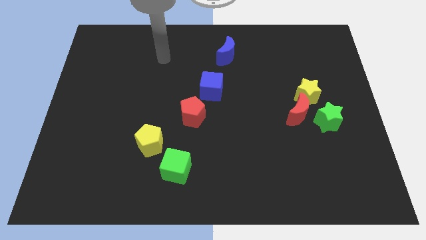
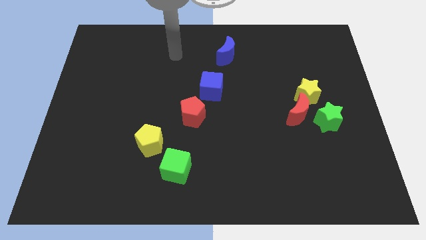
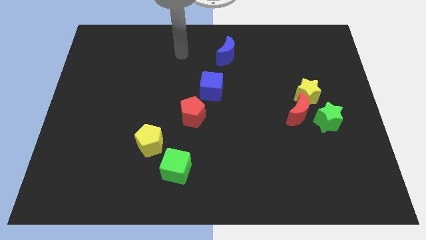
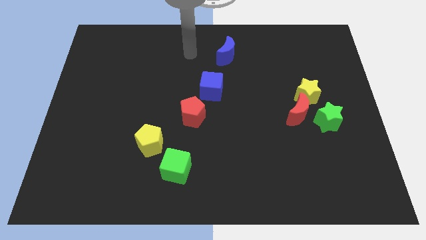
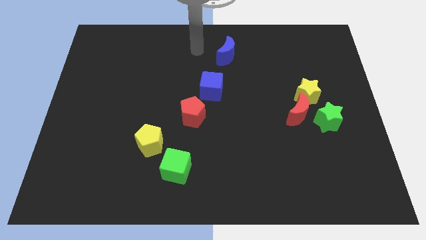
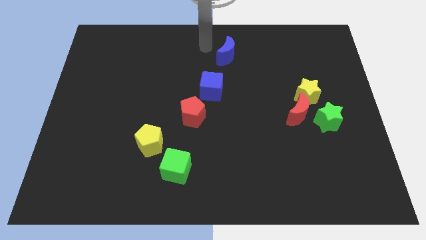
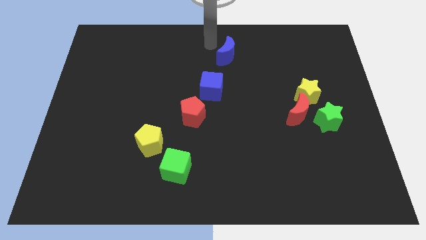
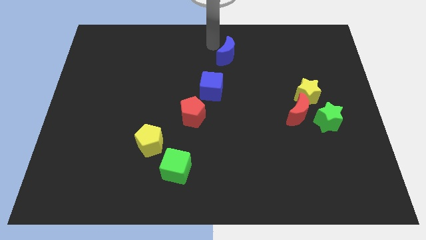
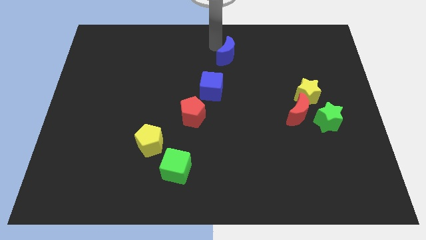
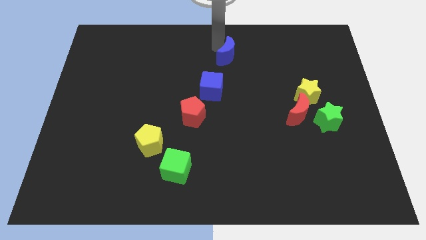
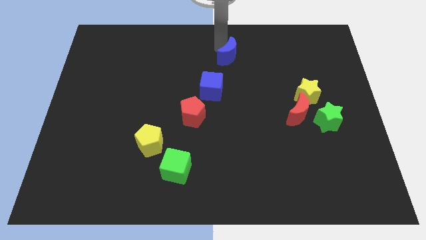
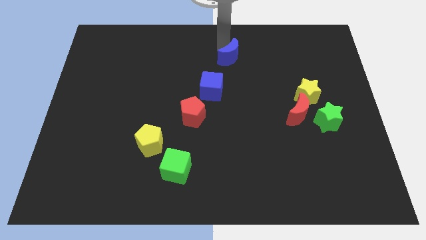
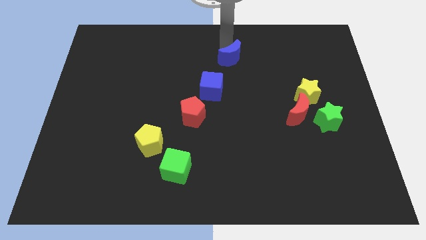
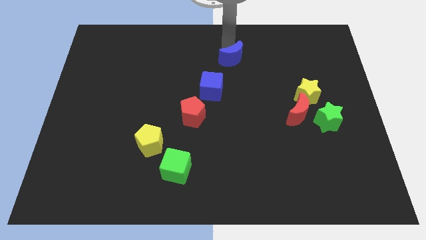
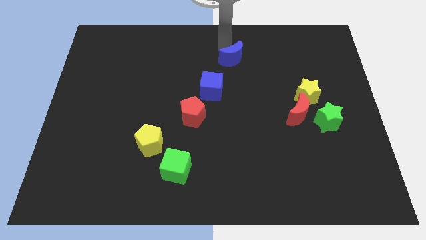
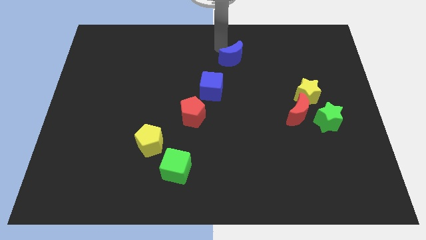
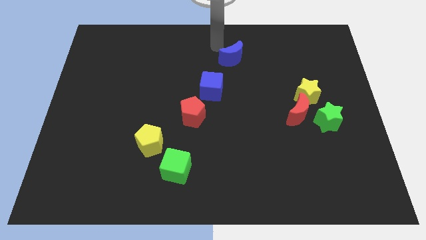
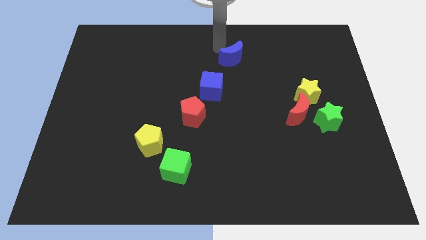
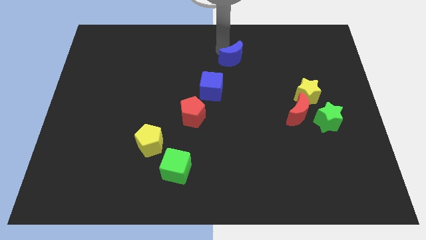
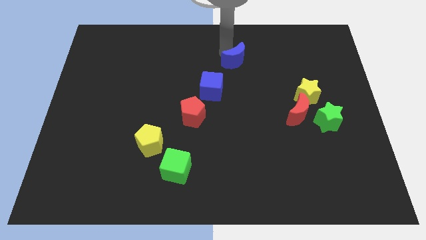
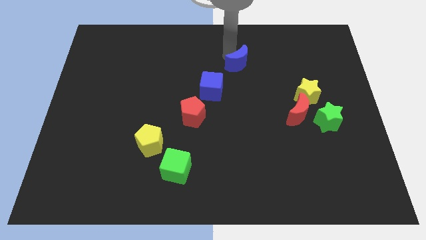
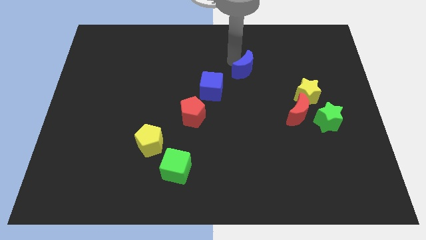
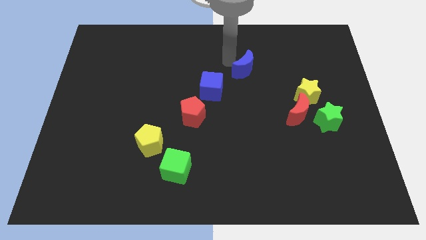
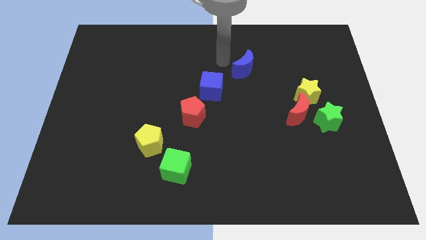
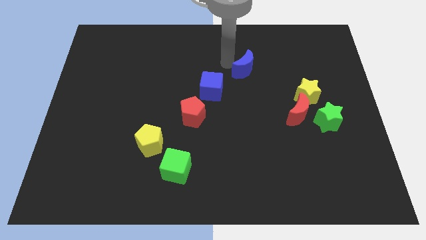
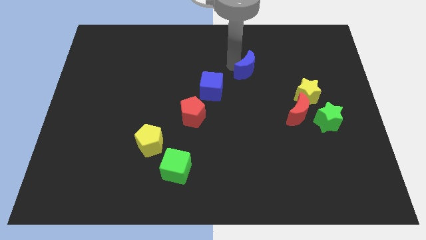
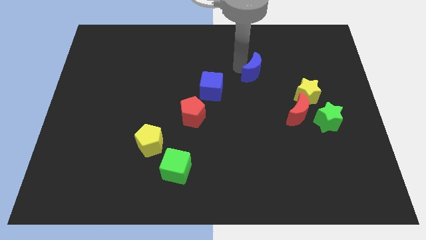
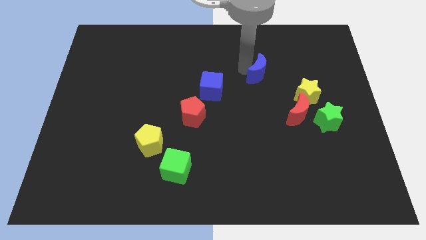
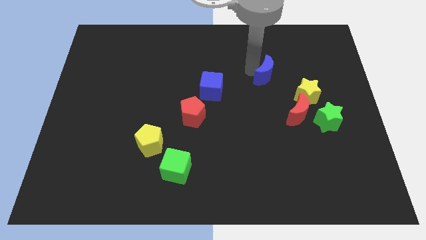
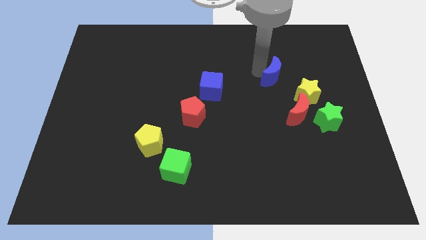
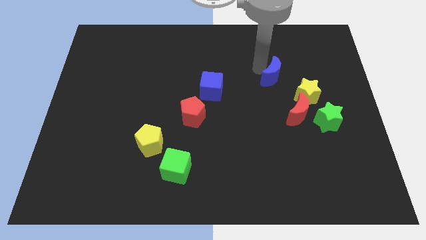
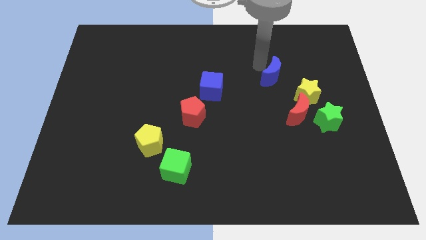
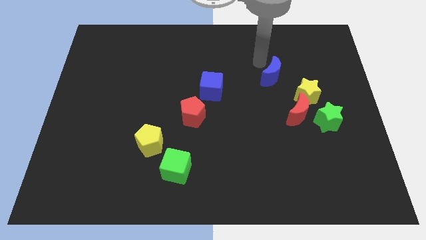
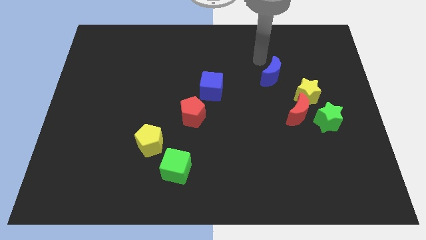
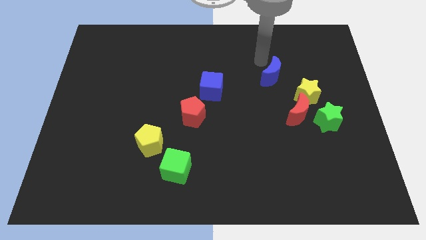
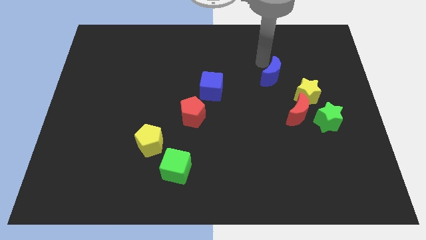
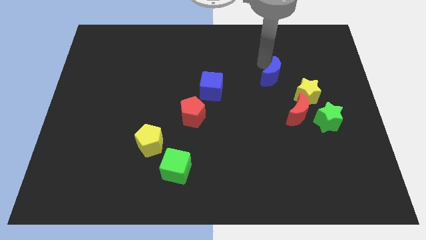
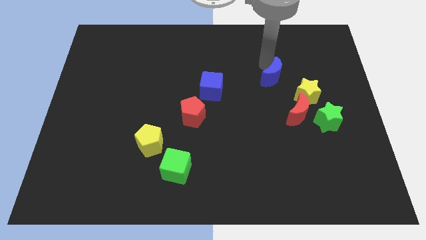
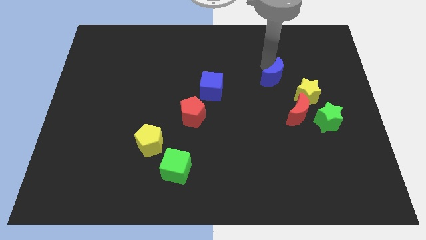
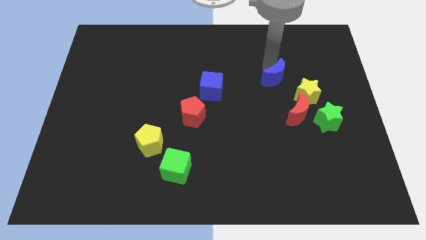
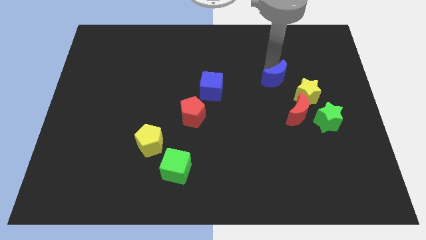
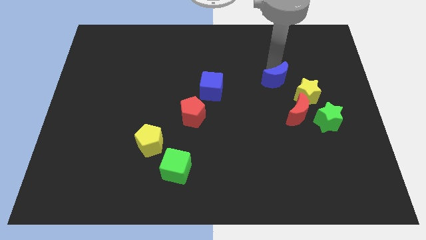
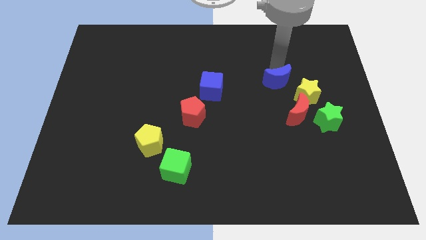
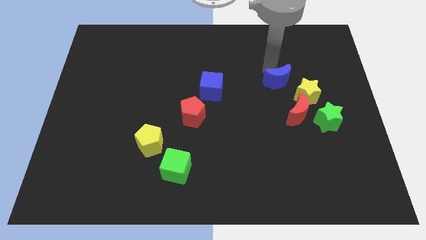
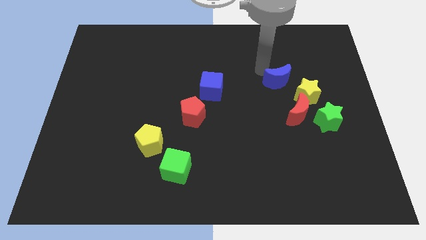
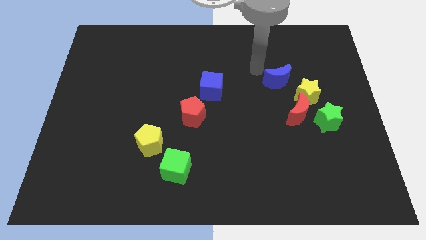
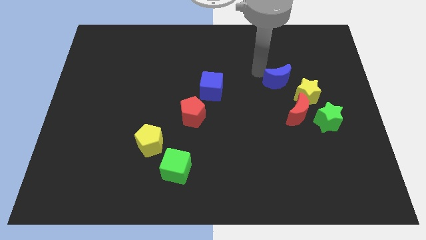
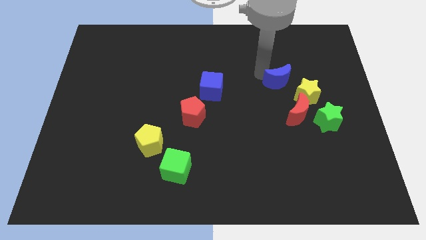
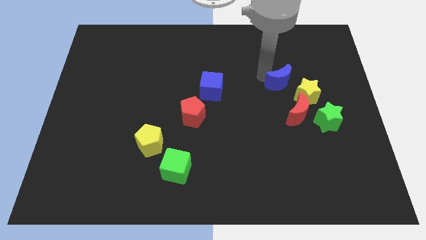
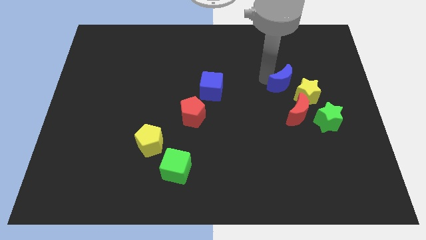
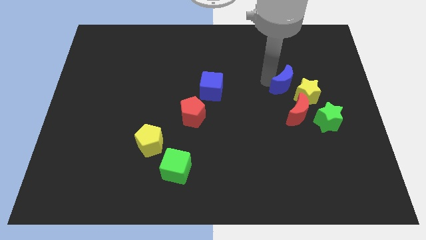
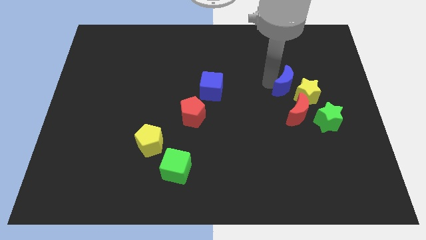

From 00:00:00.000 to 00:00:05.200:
move the blue moon next to the yellow star

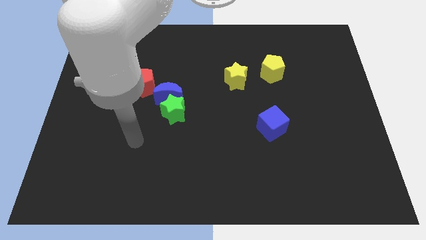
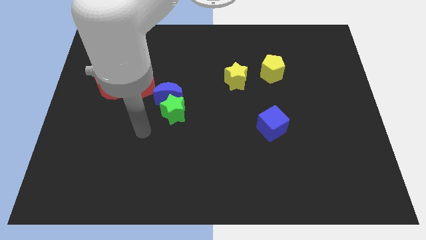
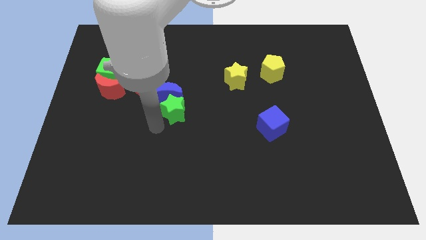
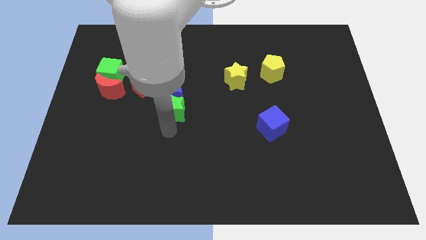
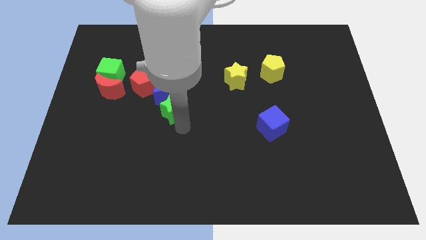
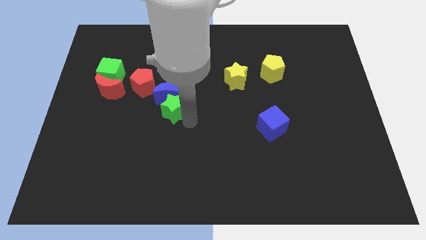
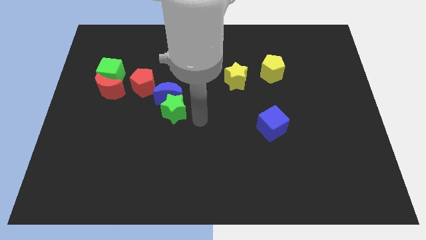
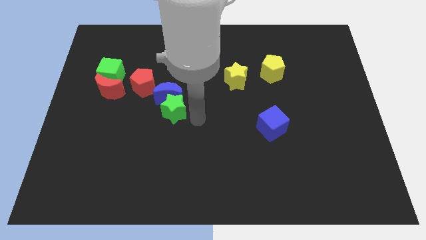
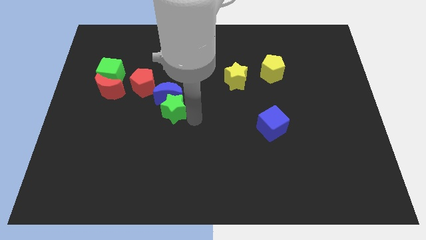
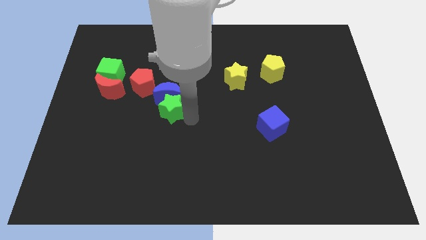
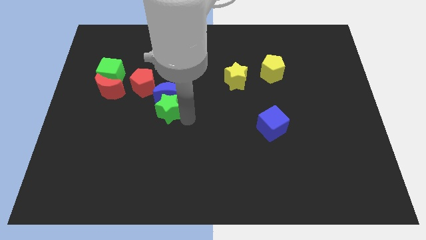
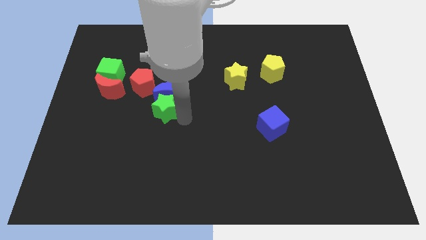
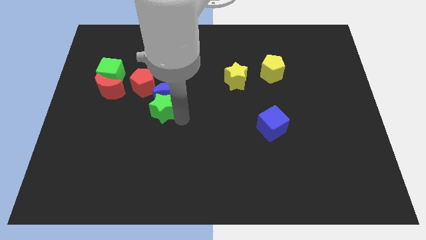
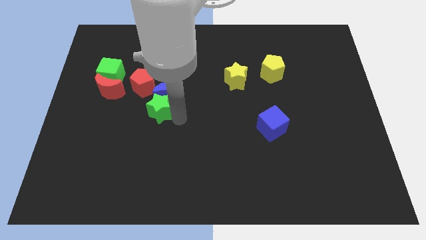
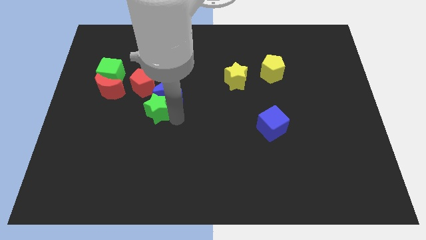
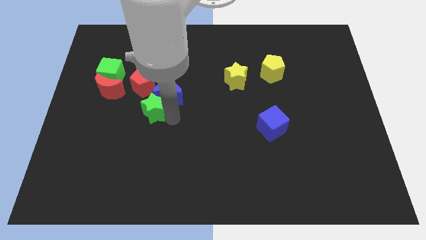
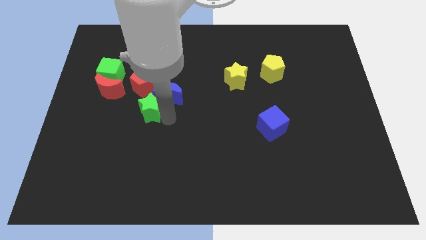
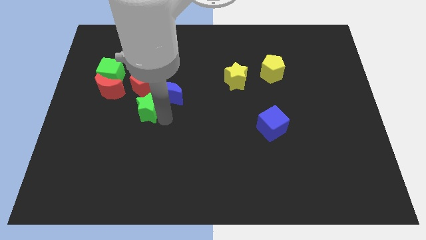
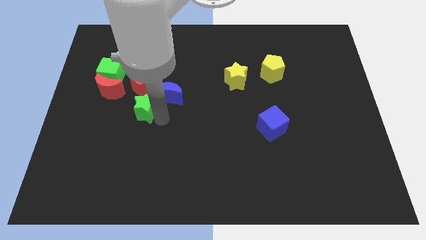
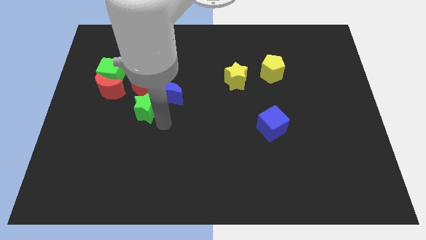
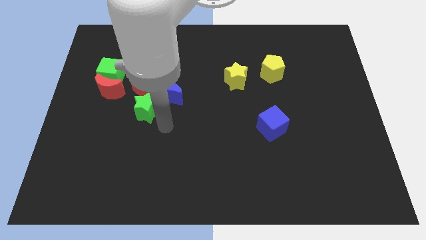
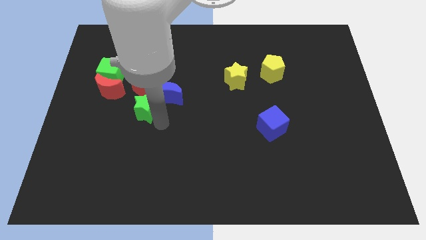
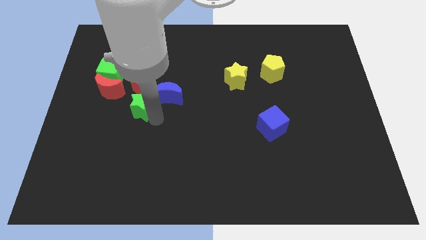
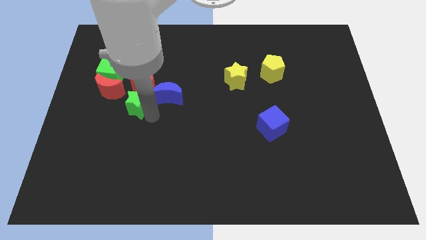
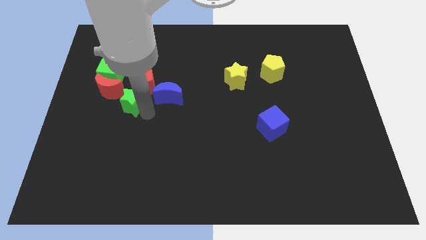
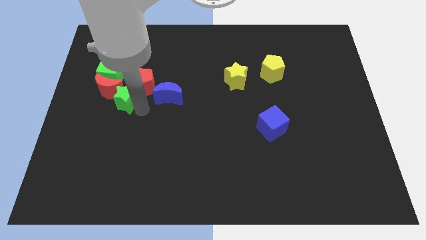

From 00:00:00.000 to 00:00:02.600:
move the green star next to the red moon
